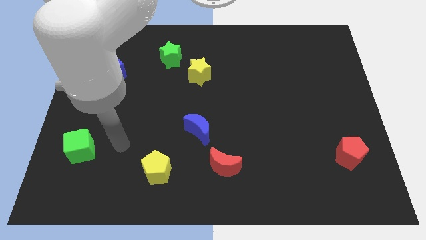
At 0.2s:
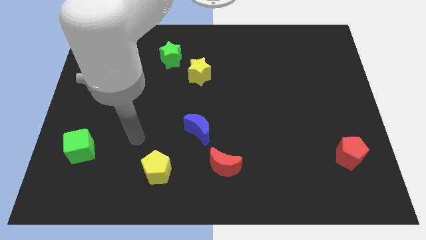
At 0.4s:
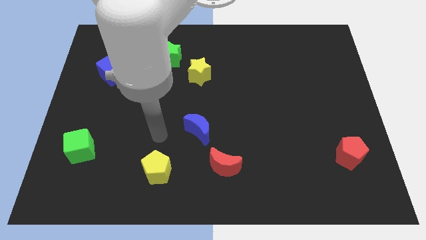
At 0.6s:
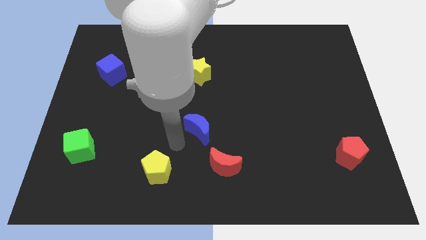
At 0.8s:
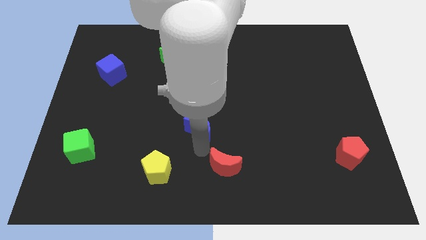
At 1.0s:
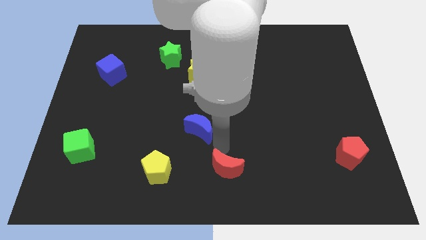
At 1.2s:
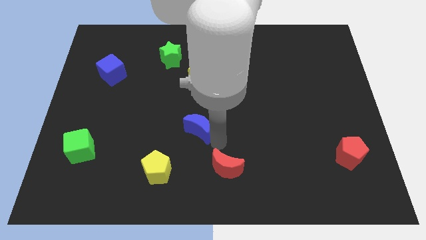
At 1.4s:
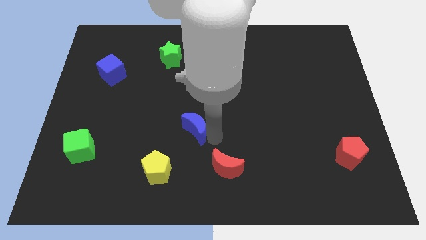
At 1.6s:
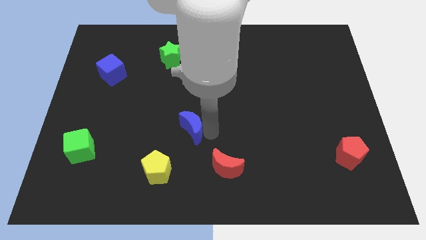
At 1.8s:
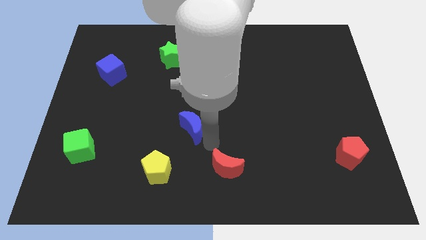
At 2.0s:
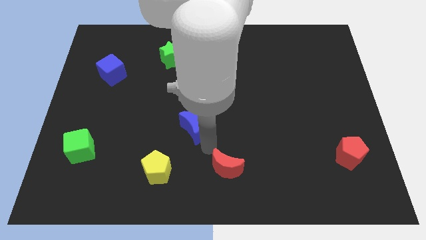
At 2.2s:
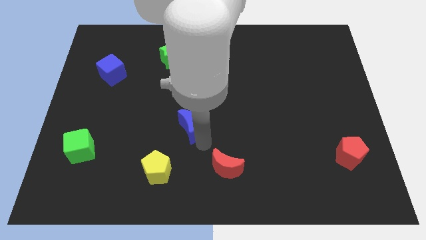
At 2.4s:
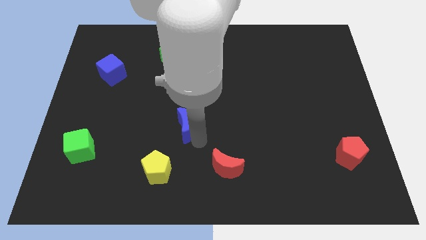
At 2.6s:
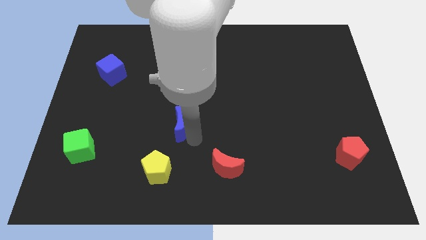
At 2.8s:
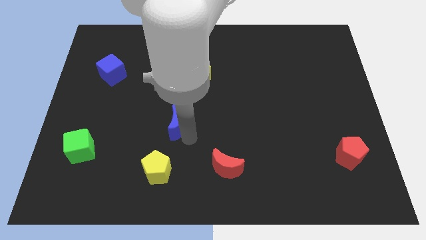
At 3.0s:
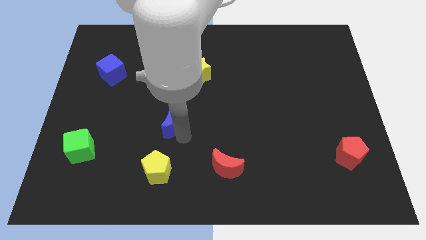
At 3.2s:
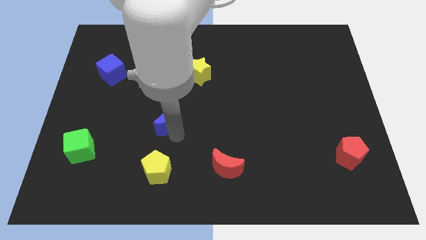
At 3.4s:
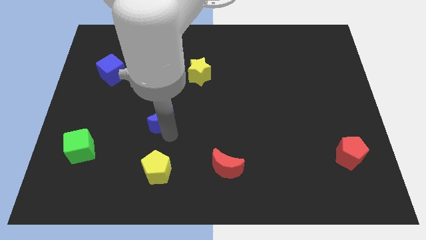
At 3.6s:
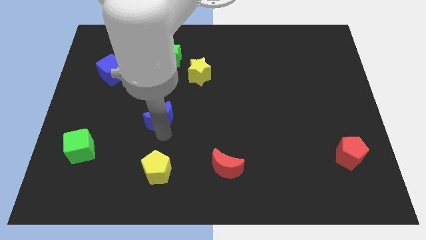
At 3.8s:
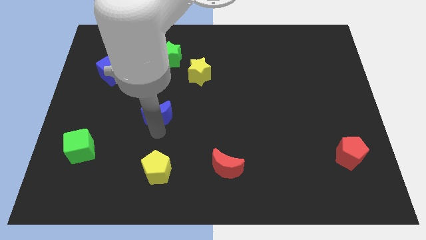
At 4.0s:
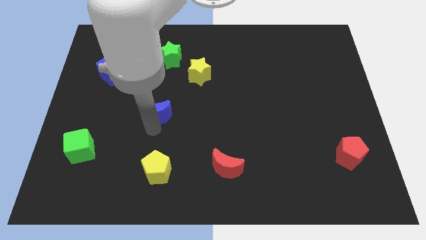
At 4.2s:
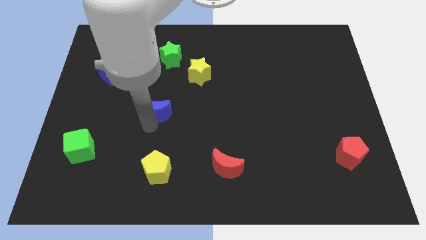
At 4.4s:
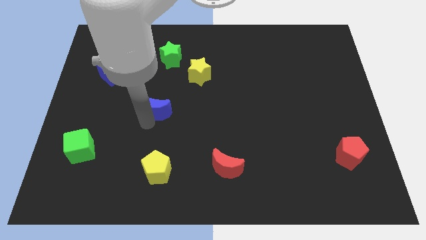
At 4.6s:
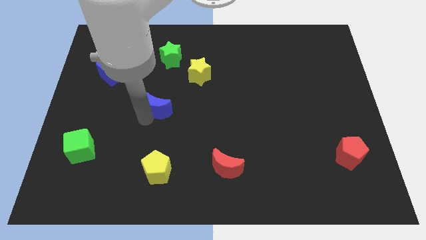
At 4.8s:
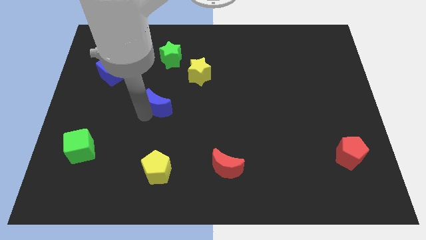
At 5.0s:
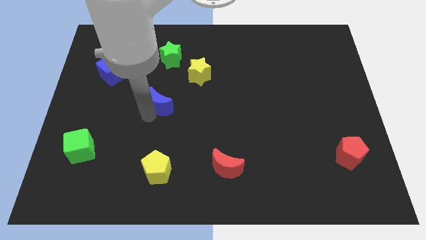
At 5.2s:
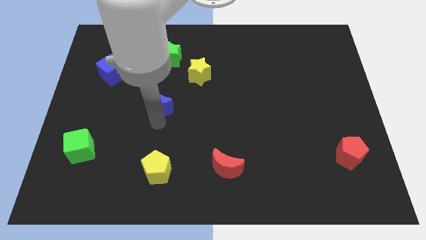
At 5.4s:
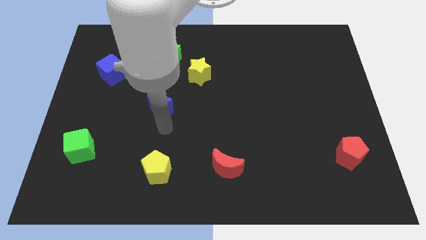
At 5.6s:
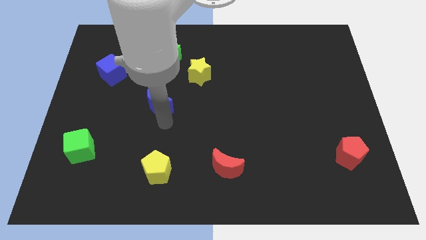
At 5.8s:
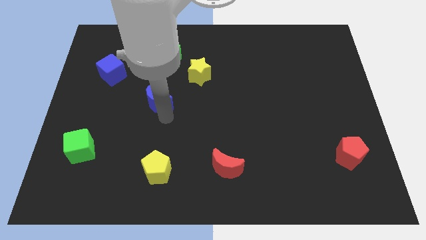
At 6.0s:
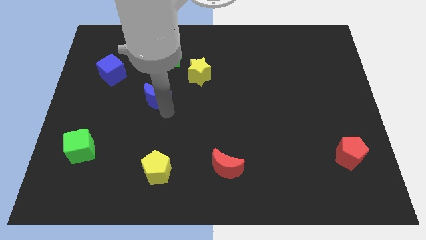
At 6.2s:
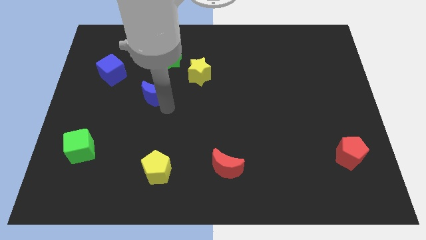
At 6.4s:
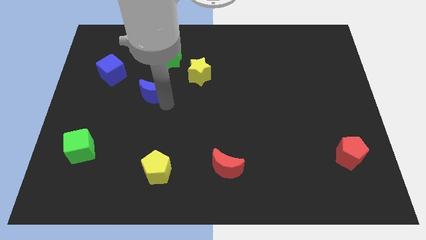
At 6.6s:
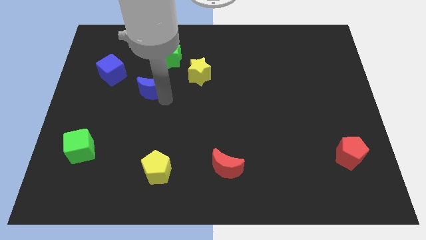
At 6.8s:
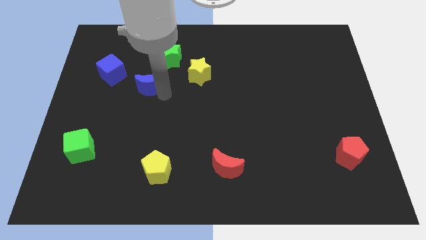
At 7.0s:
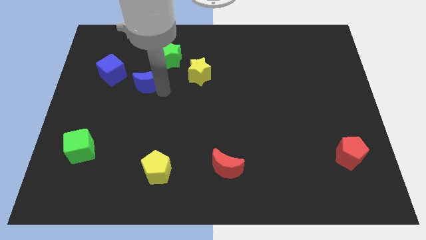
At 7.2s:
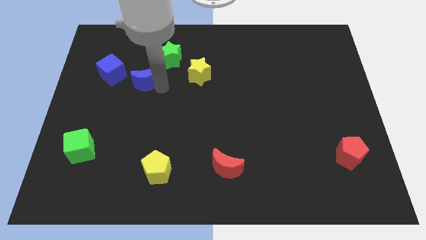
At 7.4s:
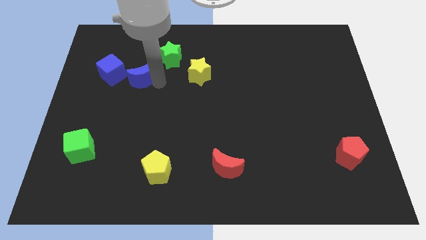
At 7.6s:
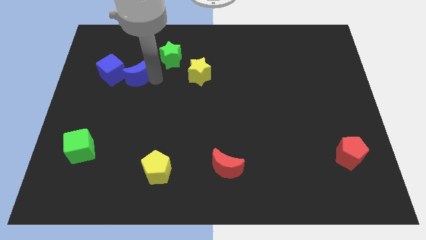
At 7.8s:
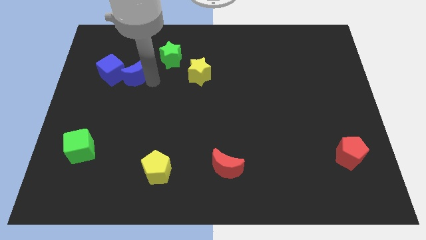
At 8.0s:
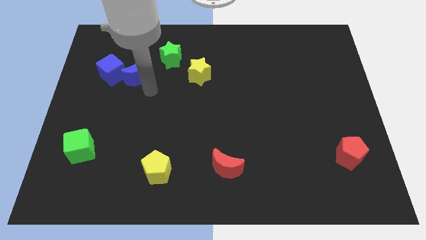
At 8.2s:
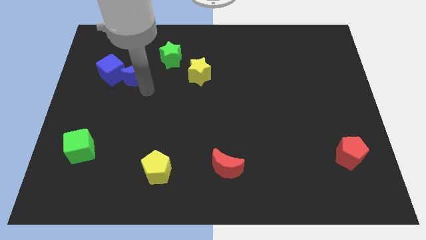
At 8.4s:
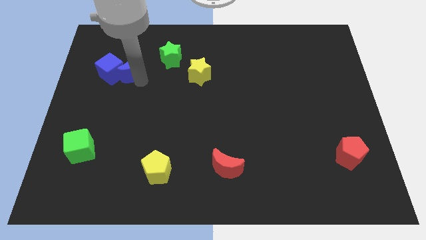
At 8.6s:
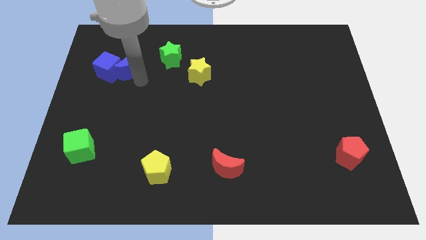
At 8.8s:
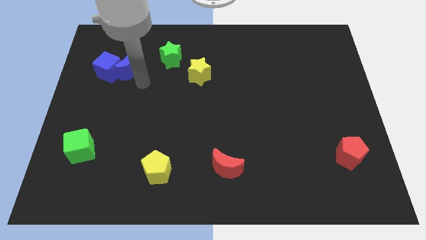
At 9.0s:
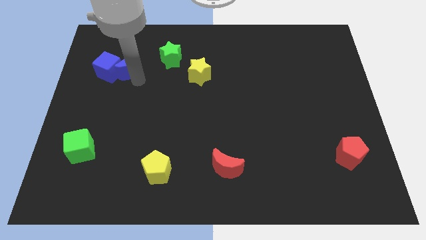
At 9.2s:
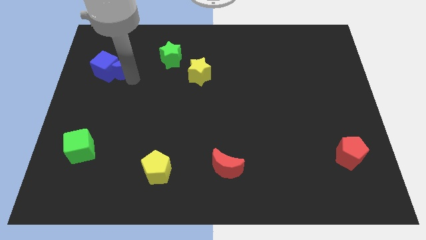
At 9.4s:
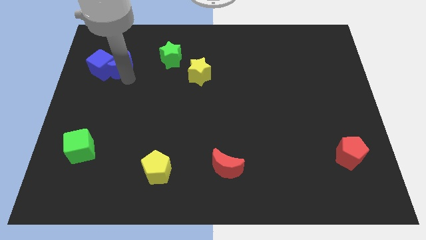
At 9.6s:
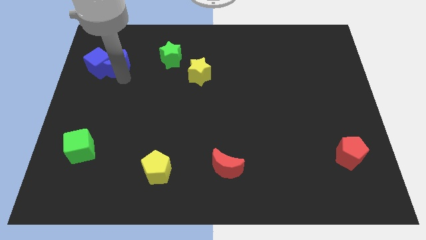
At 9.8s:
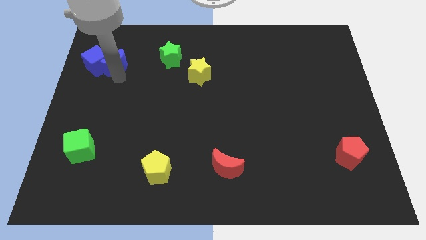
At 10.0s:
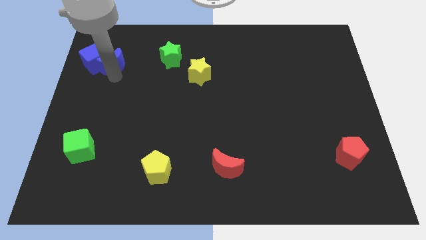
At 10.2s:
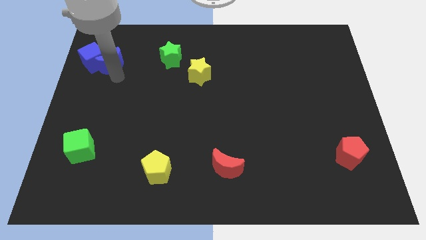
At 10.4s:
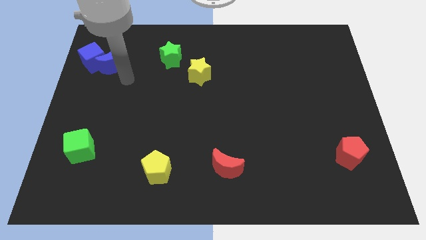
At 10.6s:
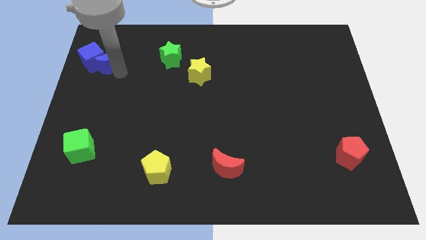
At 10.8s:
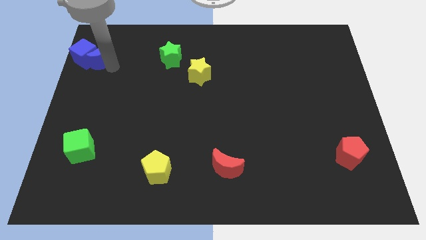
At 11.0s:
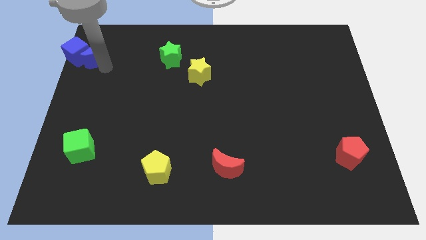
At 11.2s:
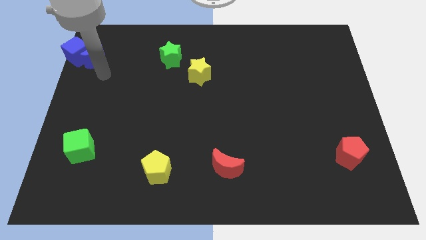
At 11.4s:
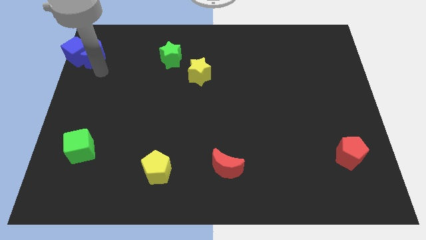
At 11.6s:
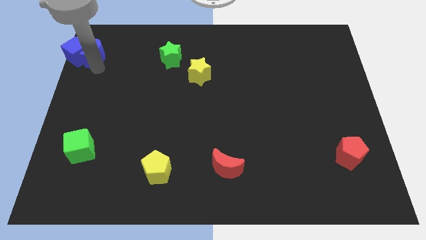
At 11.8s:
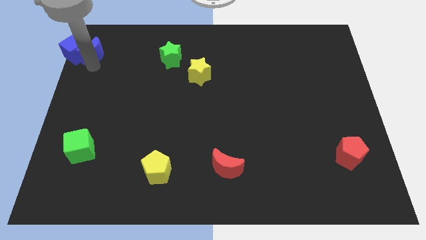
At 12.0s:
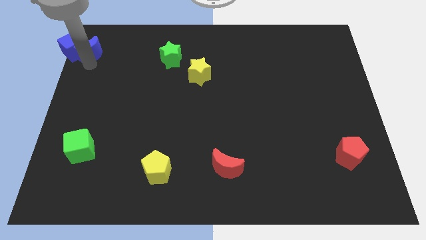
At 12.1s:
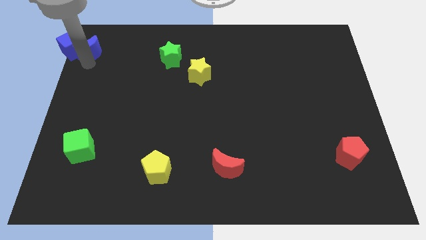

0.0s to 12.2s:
put the blue moon to the top left of the board
